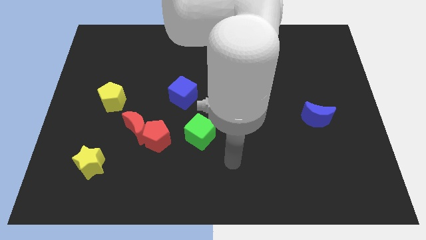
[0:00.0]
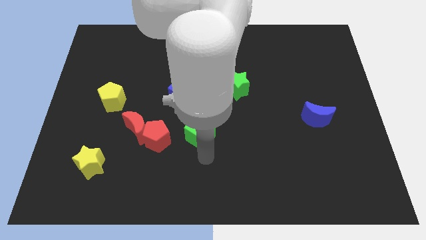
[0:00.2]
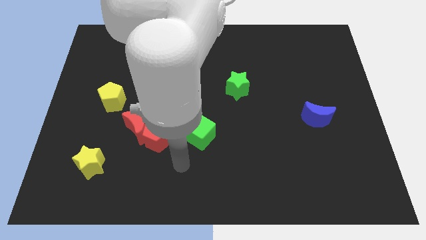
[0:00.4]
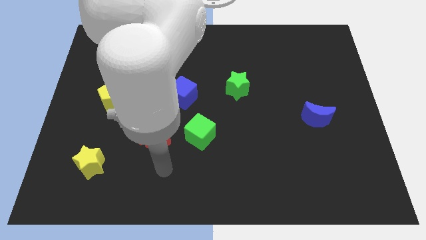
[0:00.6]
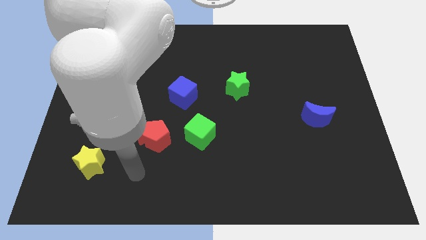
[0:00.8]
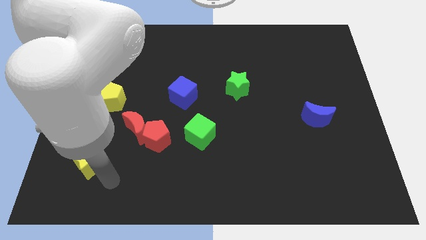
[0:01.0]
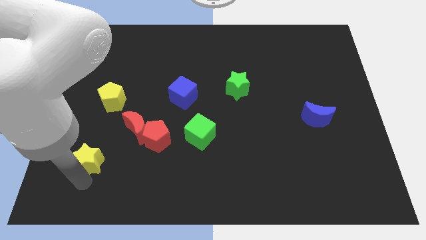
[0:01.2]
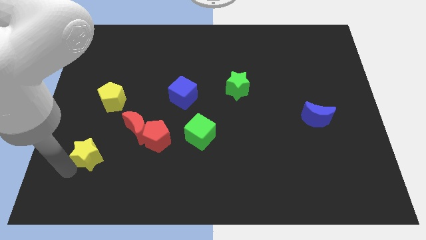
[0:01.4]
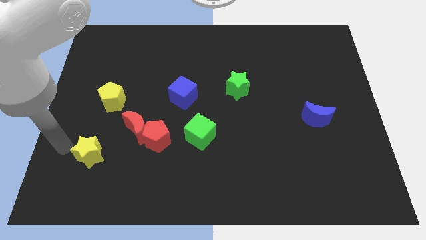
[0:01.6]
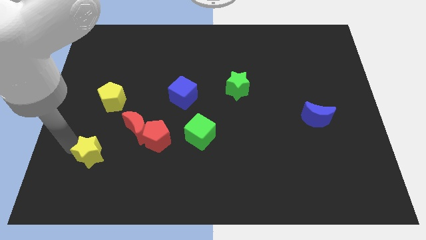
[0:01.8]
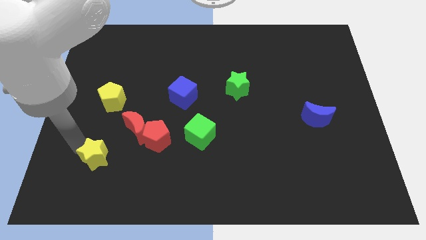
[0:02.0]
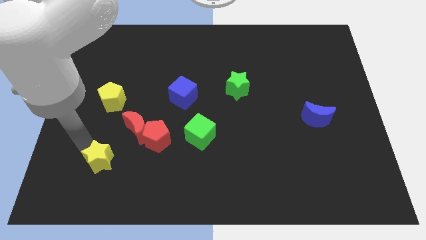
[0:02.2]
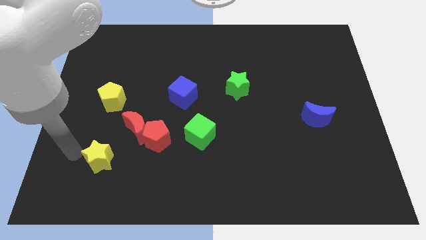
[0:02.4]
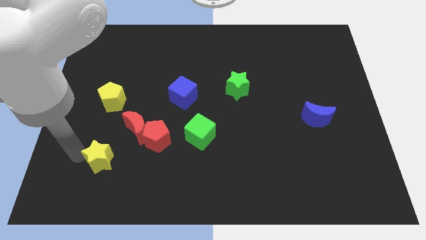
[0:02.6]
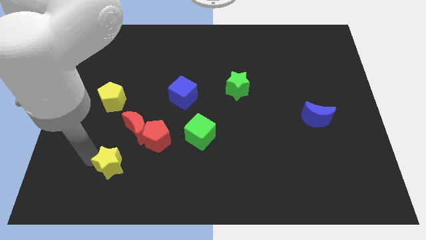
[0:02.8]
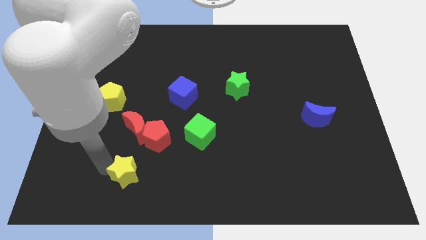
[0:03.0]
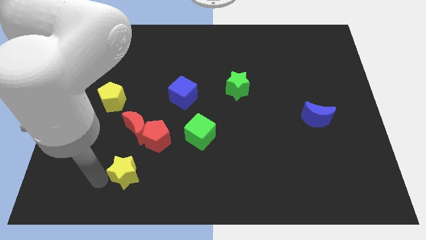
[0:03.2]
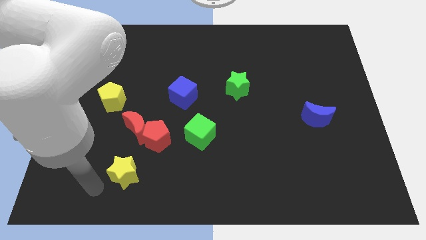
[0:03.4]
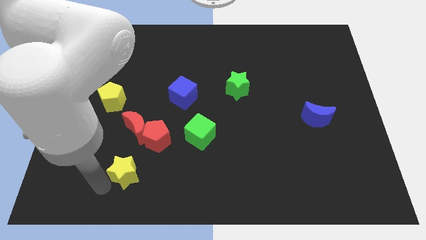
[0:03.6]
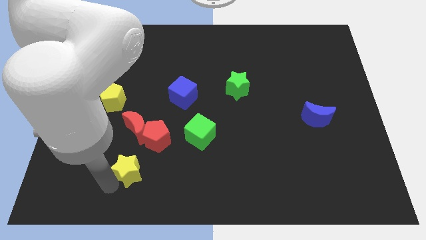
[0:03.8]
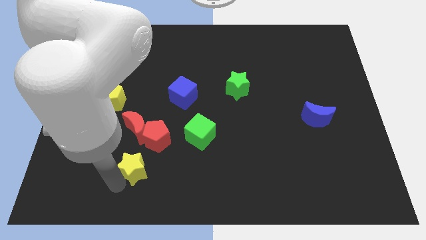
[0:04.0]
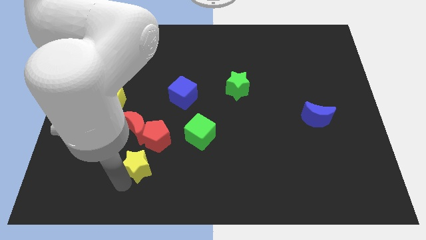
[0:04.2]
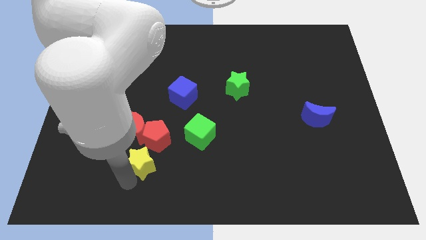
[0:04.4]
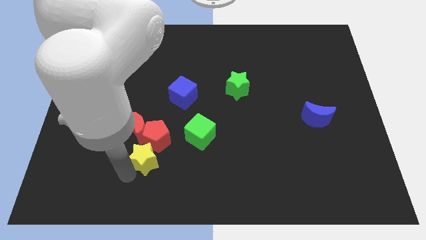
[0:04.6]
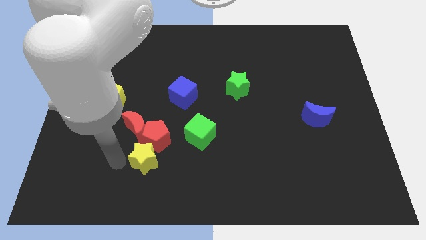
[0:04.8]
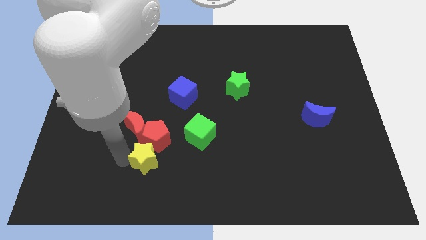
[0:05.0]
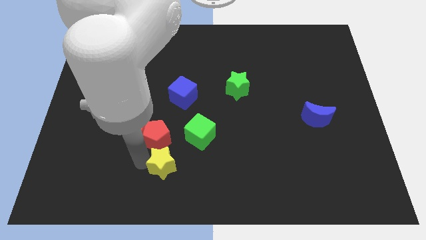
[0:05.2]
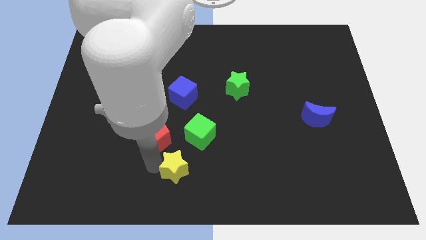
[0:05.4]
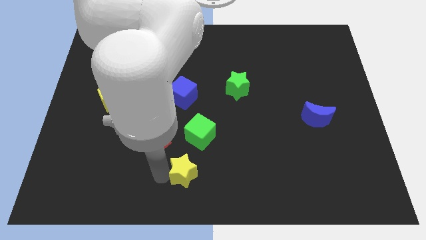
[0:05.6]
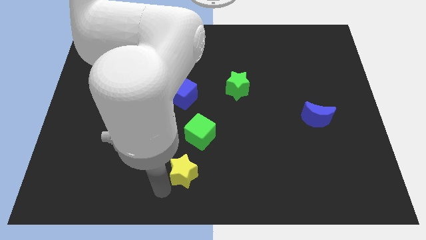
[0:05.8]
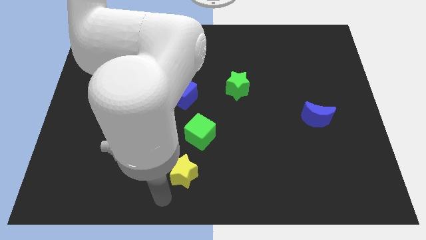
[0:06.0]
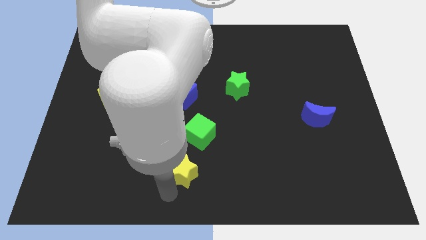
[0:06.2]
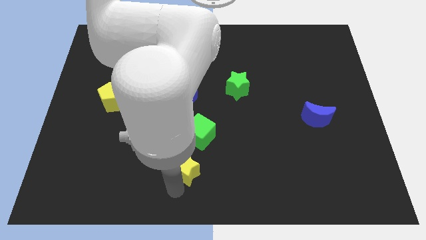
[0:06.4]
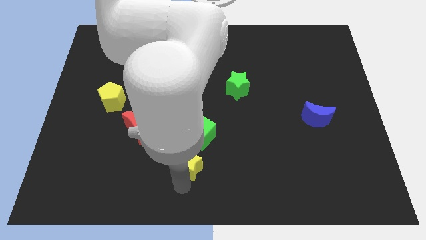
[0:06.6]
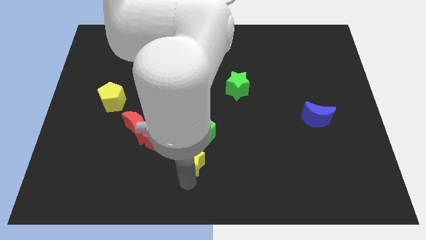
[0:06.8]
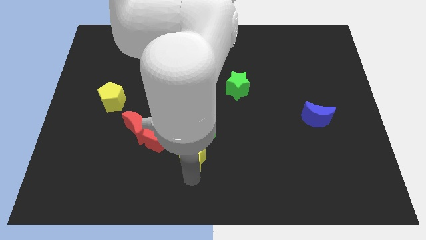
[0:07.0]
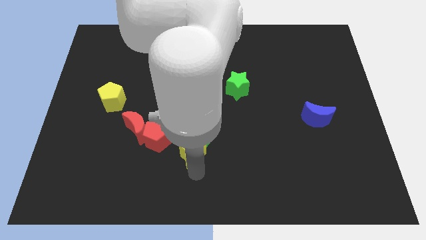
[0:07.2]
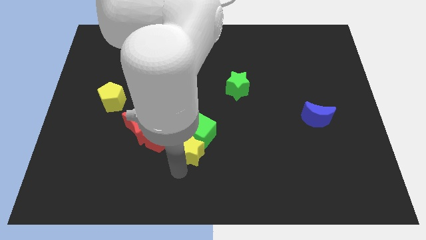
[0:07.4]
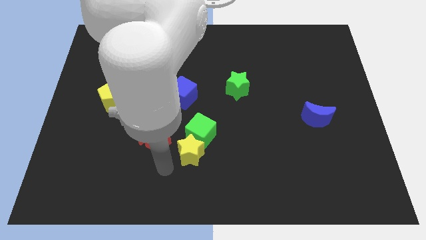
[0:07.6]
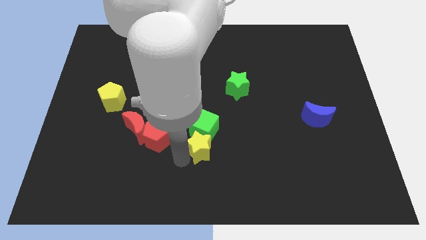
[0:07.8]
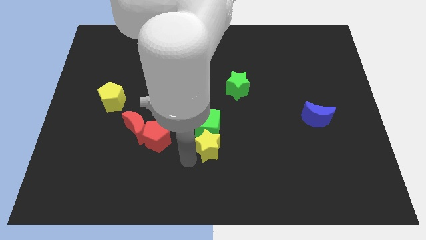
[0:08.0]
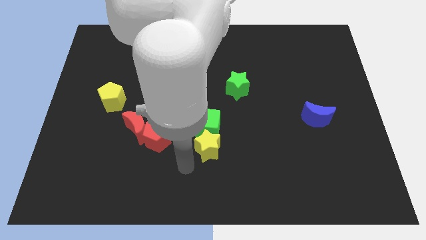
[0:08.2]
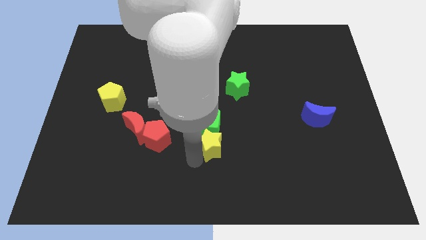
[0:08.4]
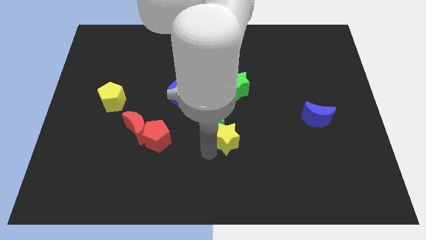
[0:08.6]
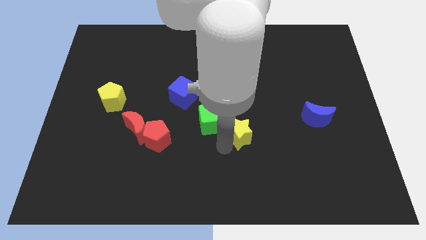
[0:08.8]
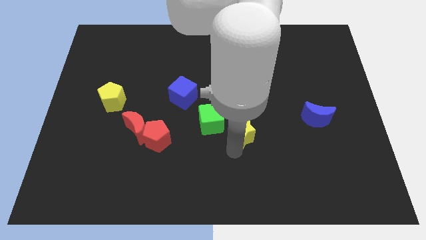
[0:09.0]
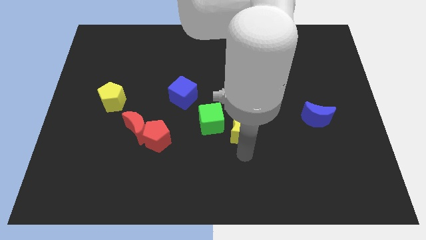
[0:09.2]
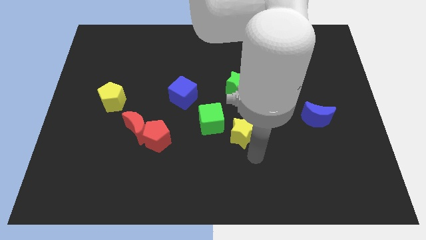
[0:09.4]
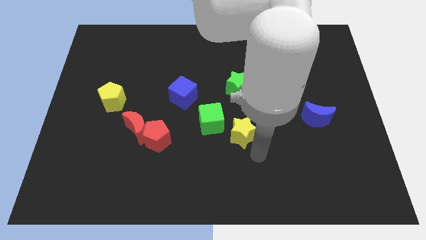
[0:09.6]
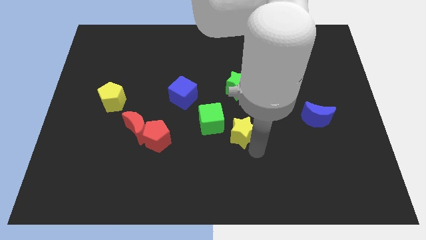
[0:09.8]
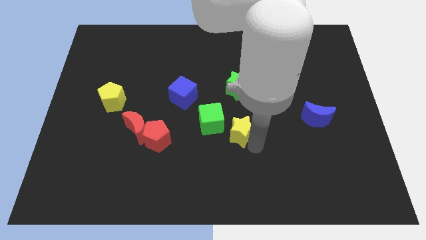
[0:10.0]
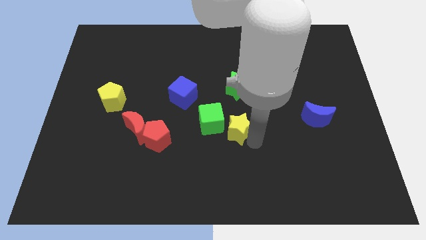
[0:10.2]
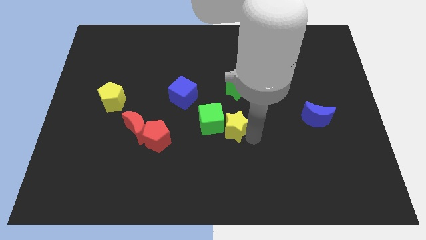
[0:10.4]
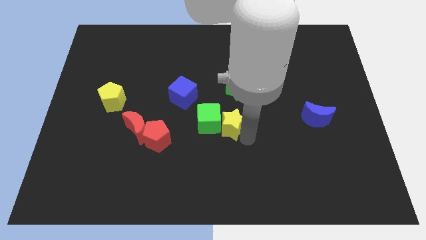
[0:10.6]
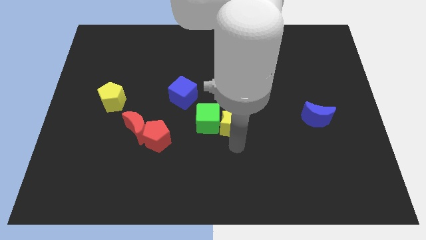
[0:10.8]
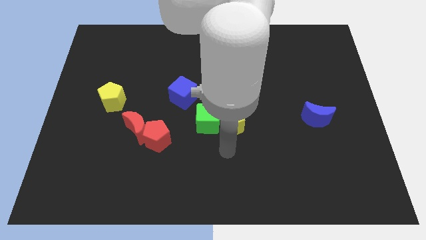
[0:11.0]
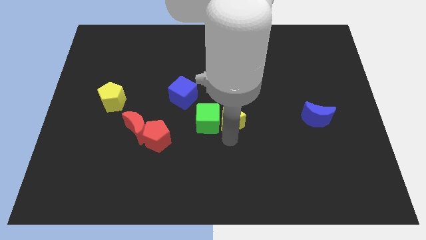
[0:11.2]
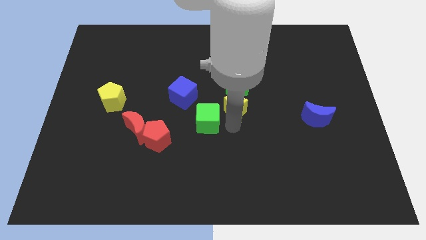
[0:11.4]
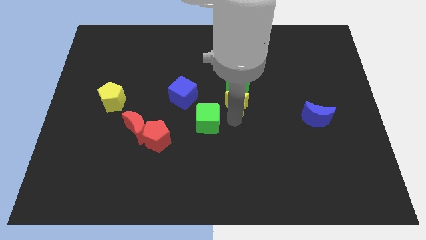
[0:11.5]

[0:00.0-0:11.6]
put the yellow star next to the green star
